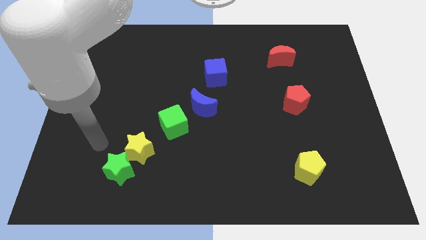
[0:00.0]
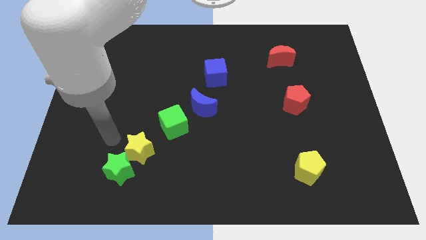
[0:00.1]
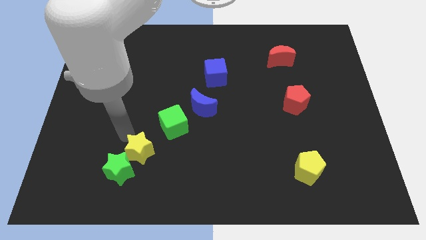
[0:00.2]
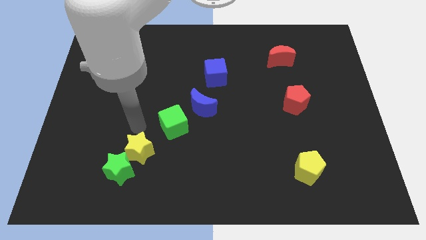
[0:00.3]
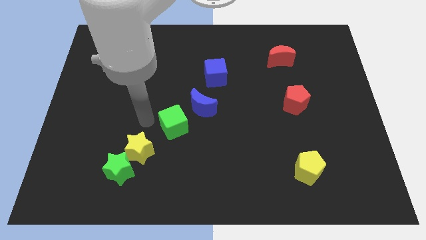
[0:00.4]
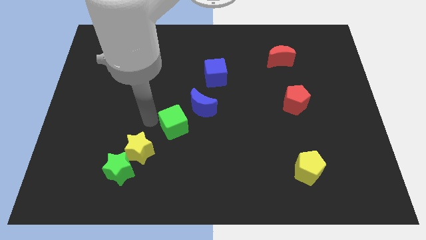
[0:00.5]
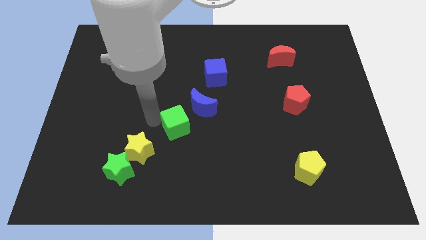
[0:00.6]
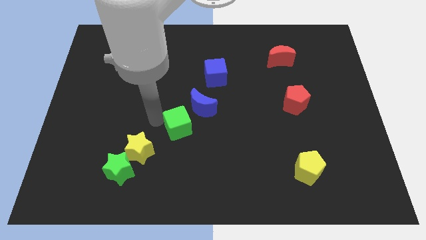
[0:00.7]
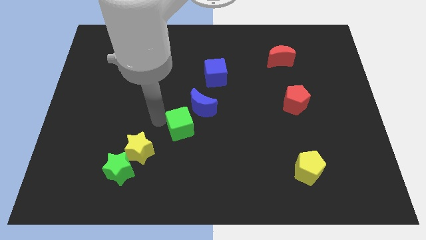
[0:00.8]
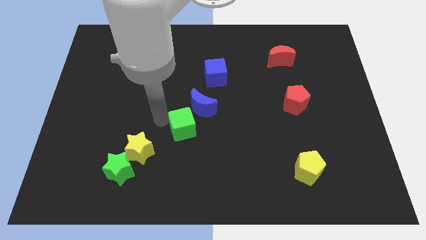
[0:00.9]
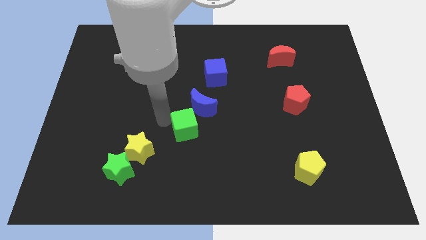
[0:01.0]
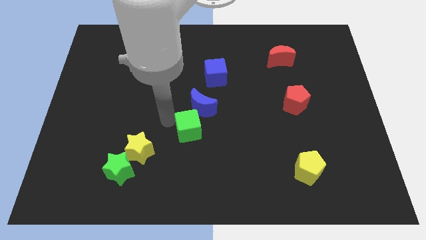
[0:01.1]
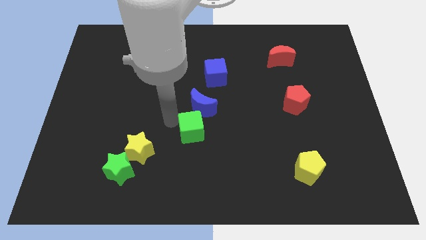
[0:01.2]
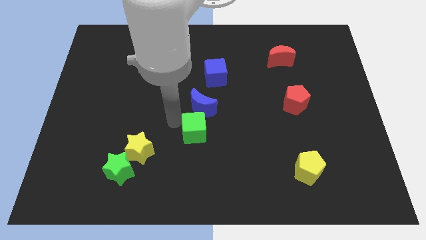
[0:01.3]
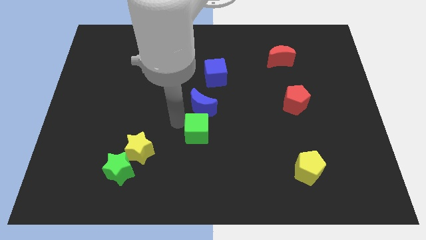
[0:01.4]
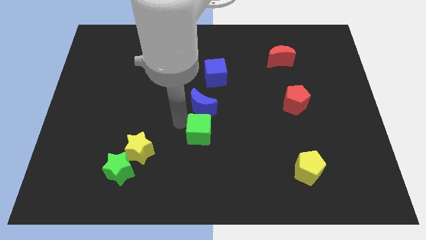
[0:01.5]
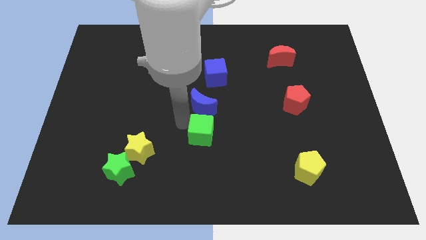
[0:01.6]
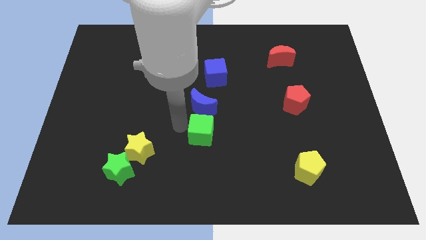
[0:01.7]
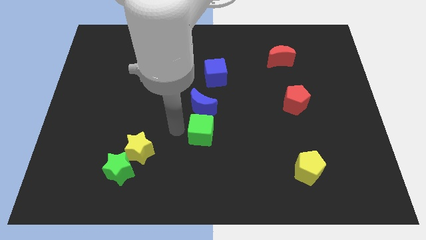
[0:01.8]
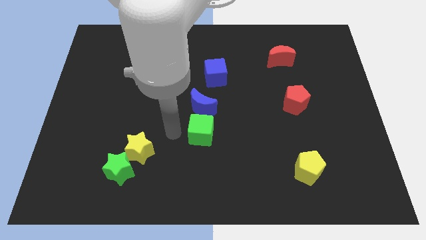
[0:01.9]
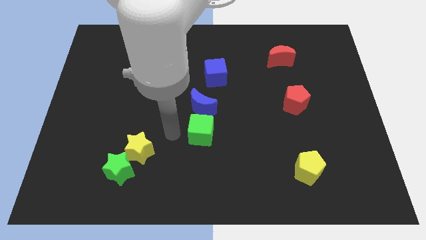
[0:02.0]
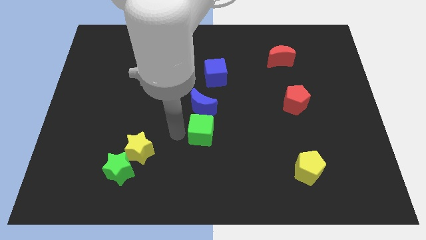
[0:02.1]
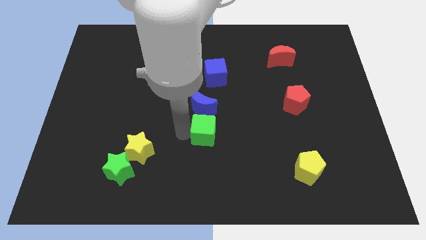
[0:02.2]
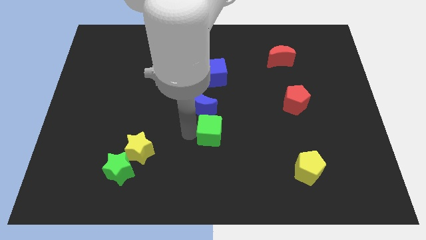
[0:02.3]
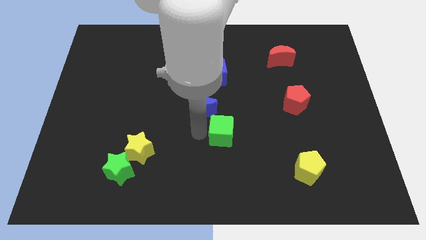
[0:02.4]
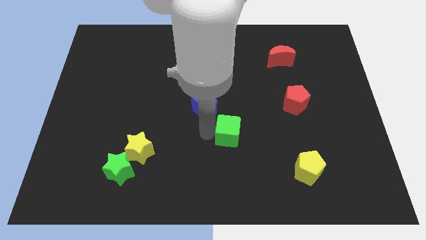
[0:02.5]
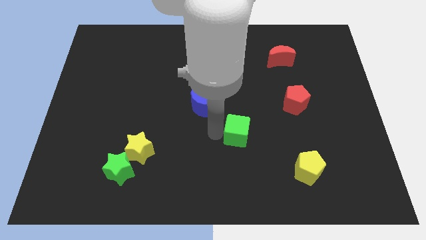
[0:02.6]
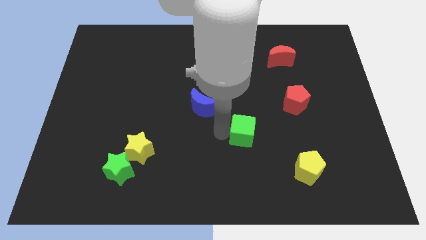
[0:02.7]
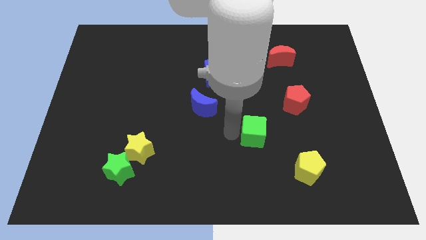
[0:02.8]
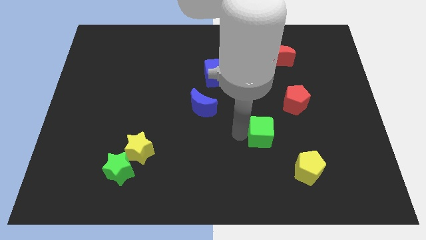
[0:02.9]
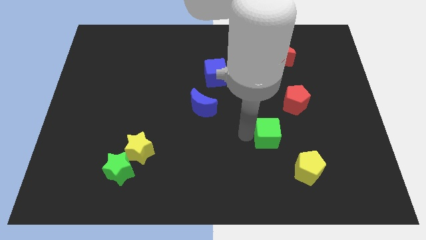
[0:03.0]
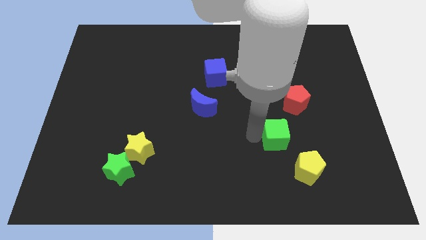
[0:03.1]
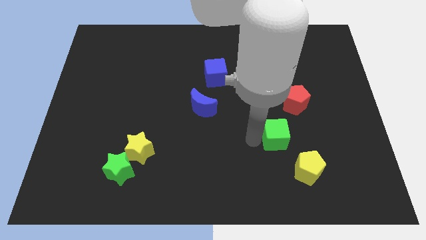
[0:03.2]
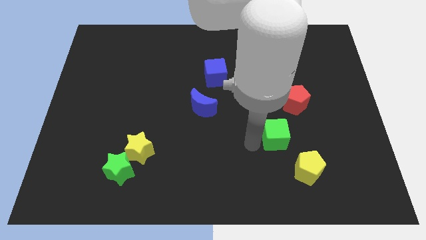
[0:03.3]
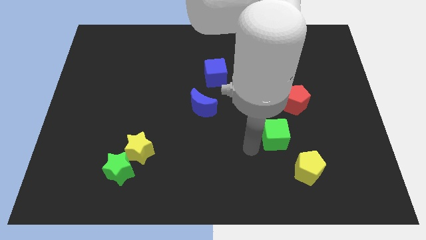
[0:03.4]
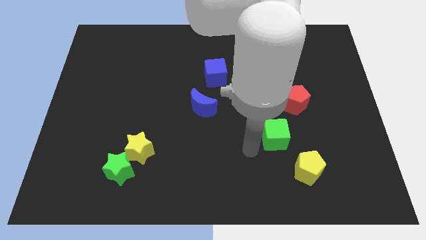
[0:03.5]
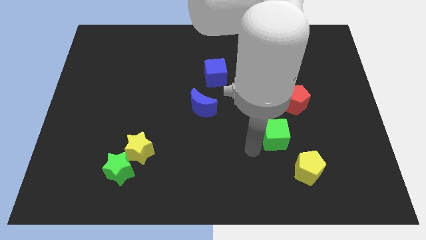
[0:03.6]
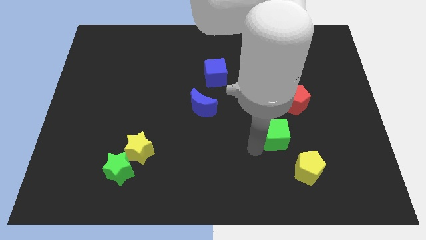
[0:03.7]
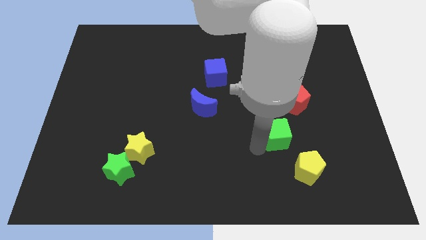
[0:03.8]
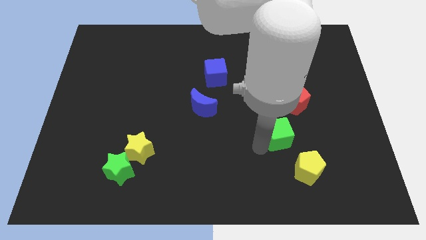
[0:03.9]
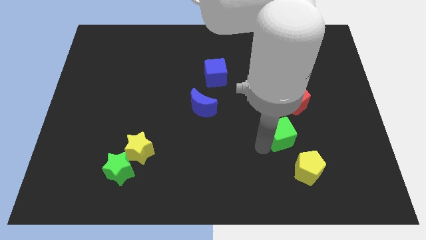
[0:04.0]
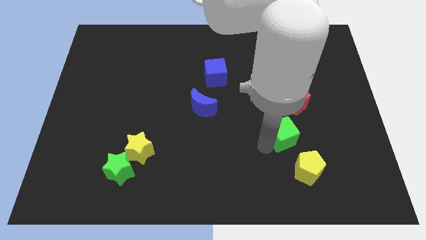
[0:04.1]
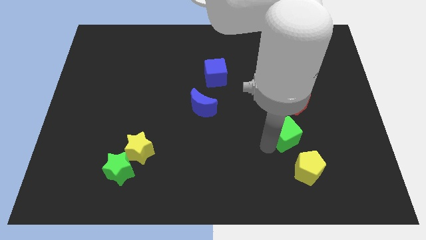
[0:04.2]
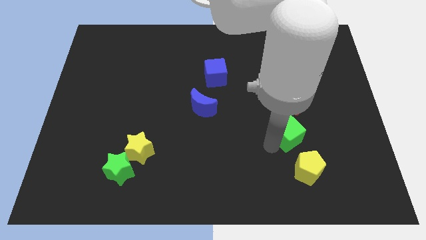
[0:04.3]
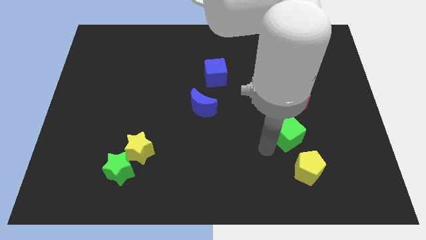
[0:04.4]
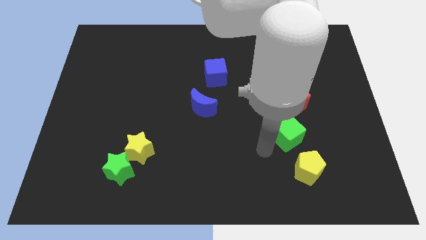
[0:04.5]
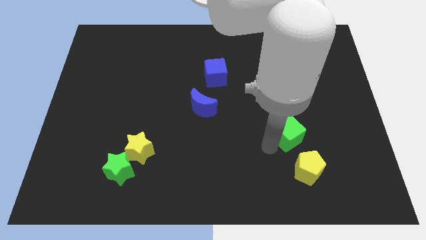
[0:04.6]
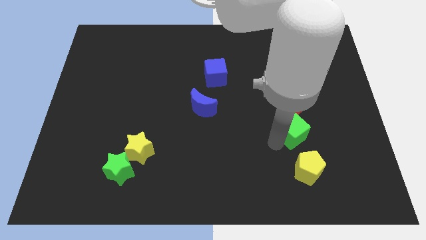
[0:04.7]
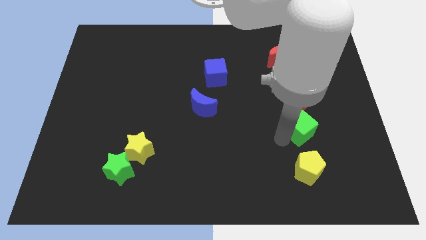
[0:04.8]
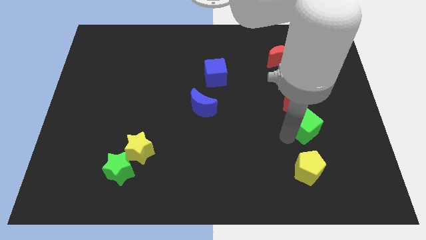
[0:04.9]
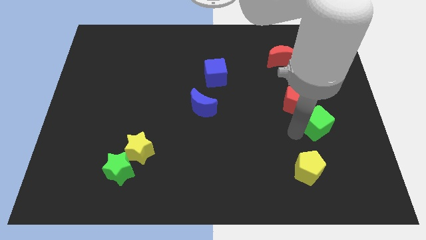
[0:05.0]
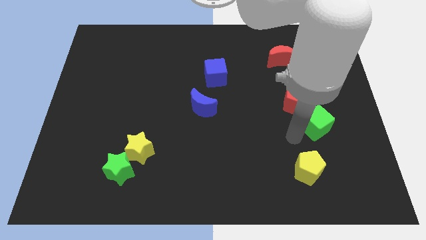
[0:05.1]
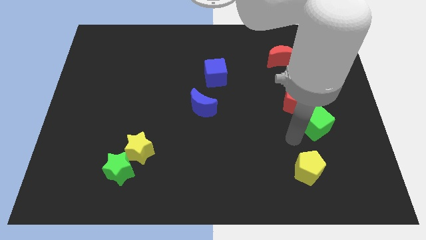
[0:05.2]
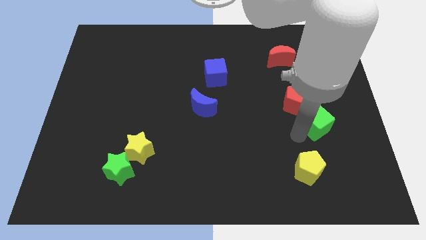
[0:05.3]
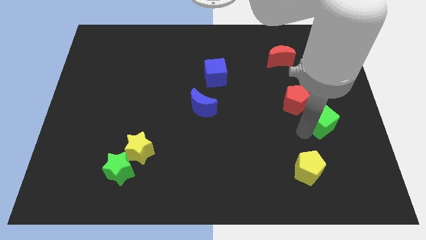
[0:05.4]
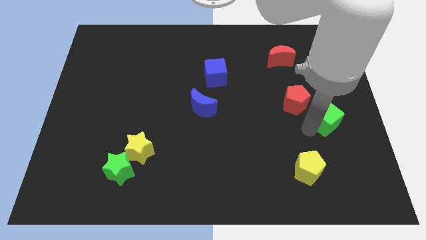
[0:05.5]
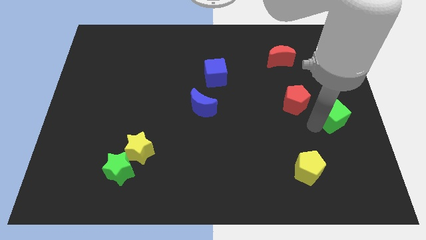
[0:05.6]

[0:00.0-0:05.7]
move the green cube to the right side
